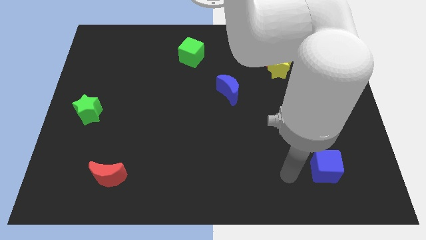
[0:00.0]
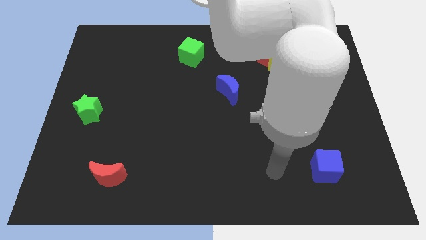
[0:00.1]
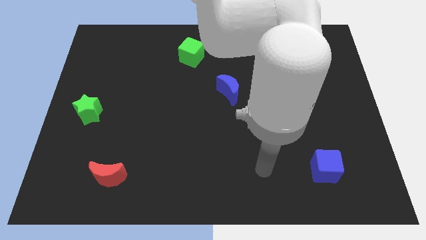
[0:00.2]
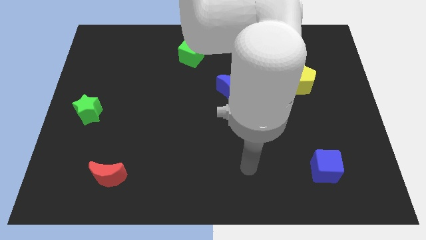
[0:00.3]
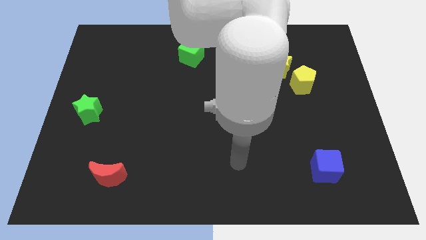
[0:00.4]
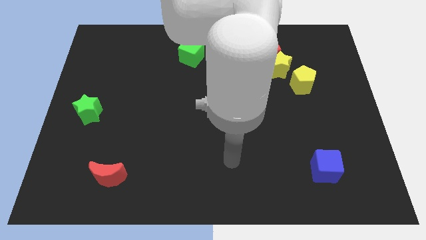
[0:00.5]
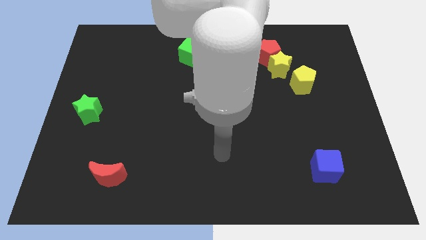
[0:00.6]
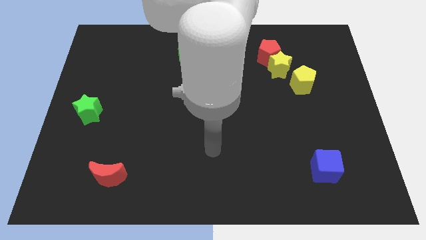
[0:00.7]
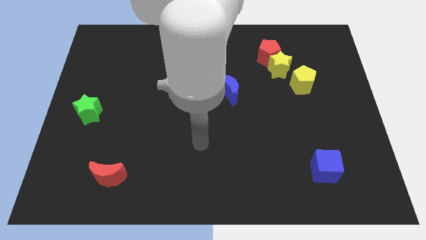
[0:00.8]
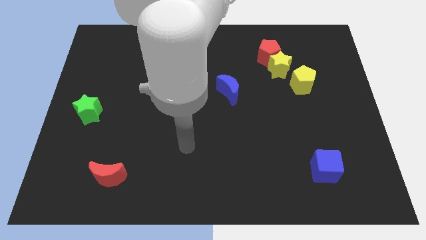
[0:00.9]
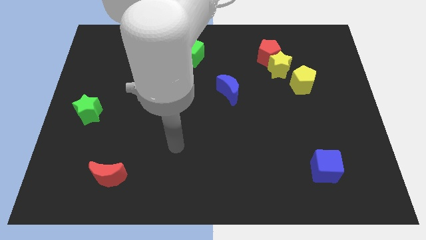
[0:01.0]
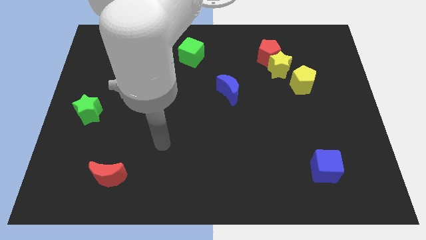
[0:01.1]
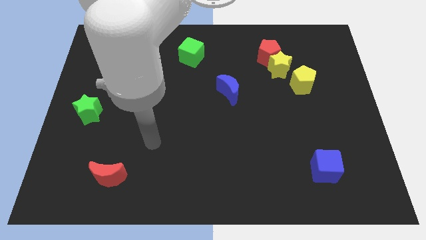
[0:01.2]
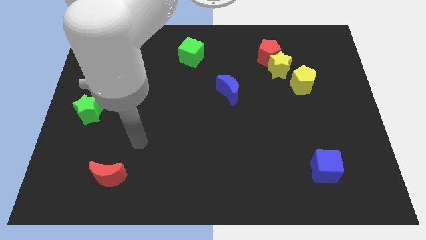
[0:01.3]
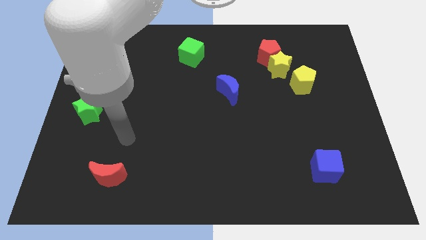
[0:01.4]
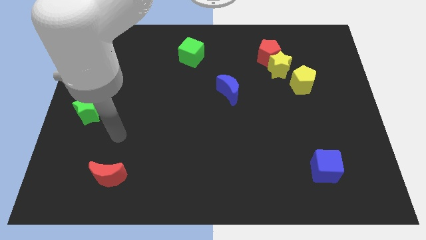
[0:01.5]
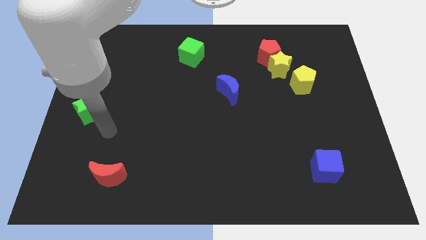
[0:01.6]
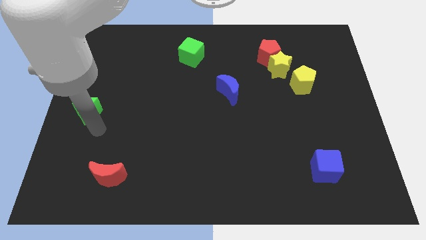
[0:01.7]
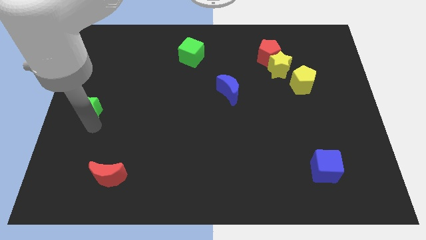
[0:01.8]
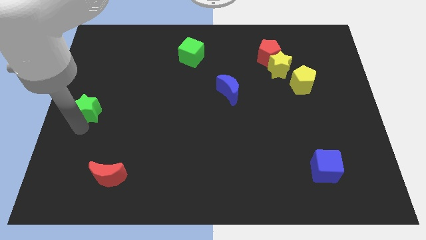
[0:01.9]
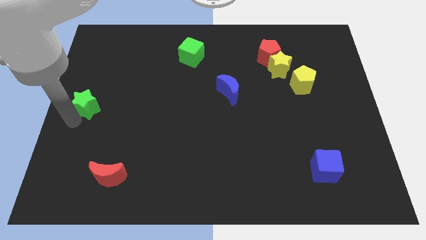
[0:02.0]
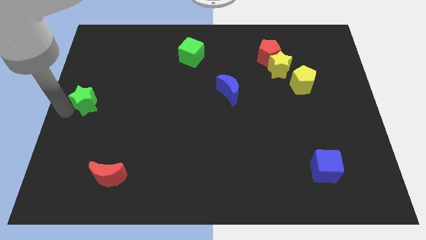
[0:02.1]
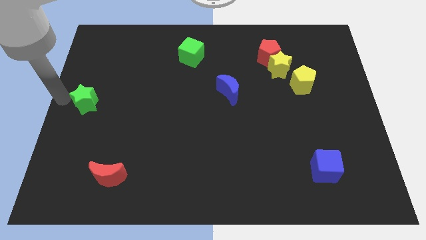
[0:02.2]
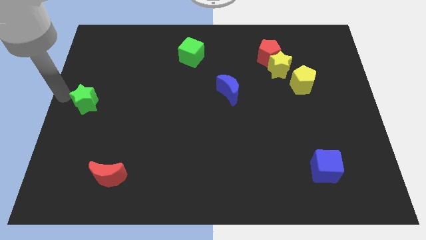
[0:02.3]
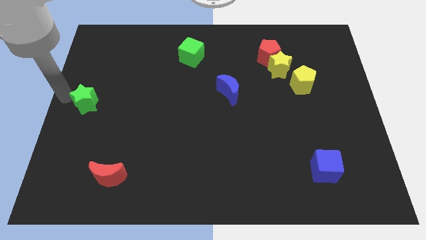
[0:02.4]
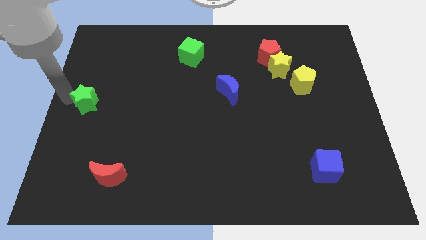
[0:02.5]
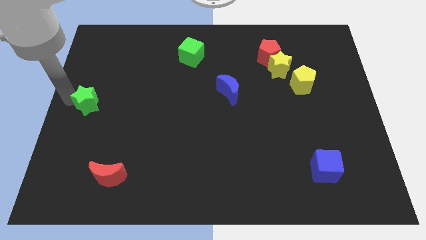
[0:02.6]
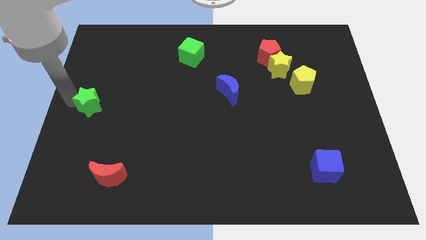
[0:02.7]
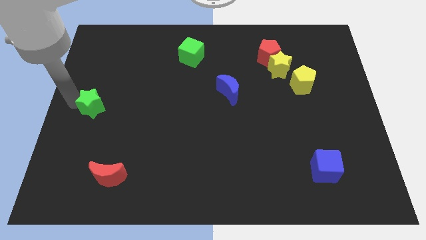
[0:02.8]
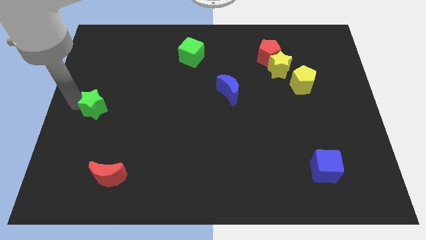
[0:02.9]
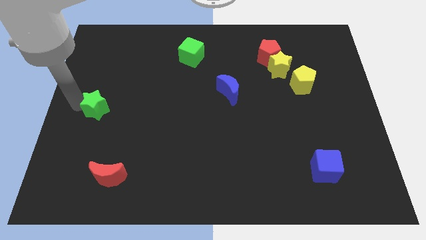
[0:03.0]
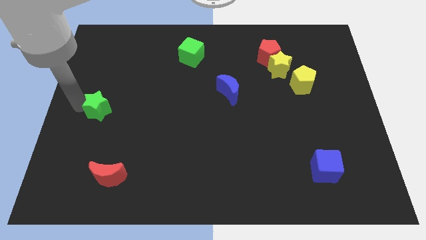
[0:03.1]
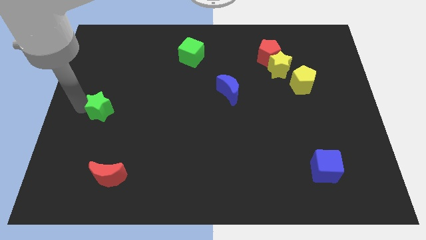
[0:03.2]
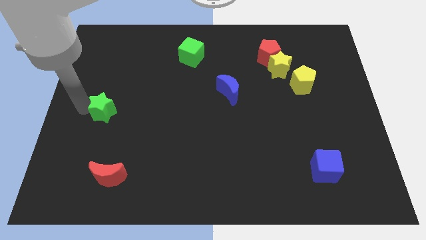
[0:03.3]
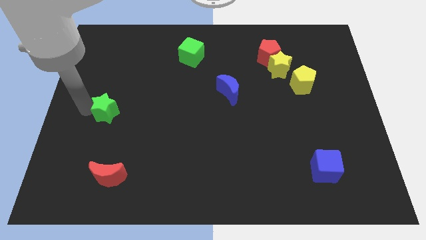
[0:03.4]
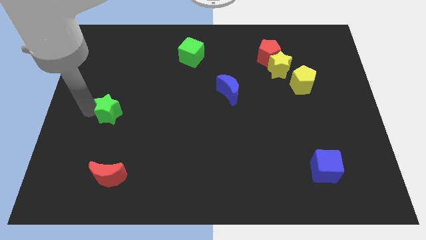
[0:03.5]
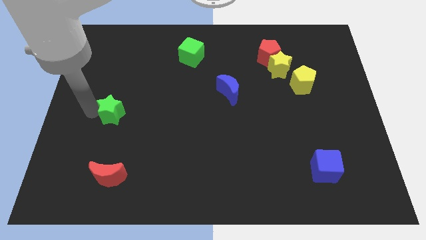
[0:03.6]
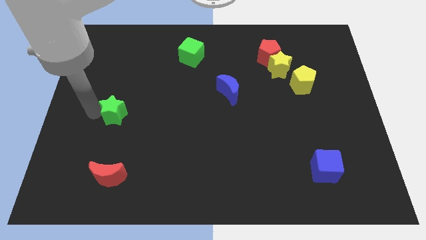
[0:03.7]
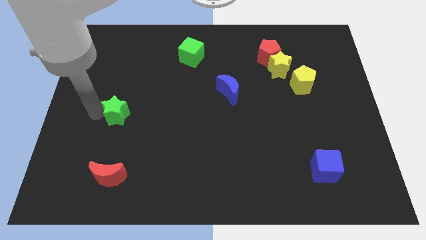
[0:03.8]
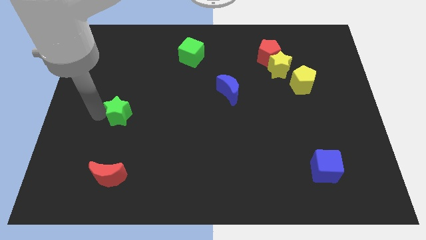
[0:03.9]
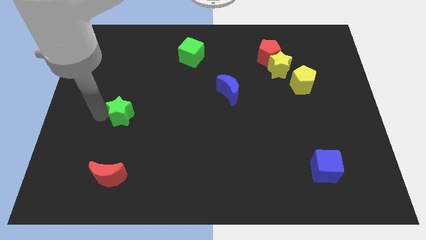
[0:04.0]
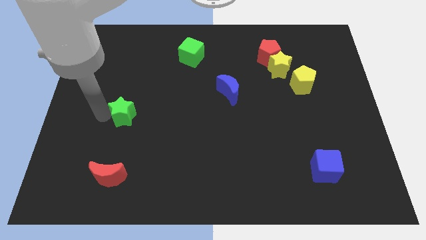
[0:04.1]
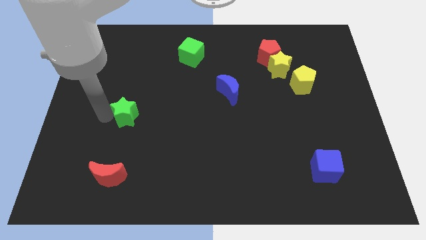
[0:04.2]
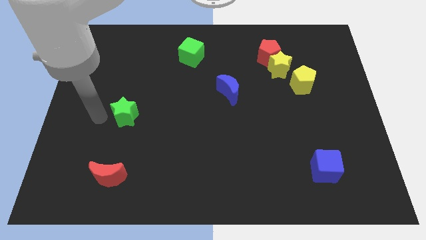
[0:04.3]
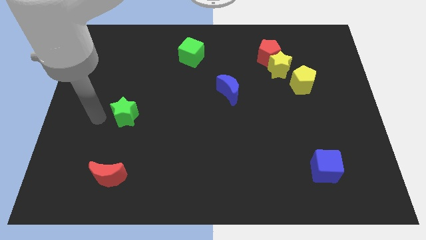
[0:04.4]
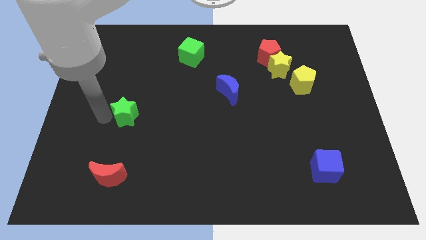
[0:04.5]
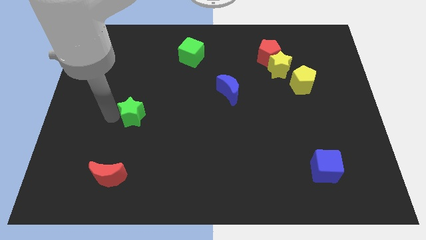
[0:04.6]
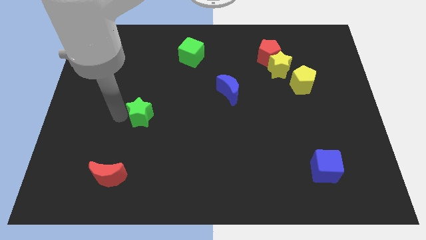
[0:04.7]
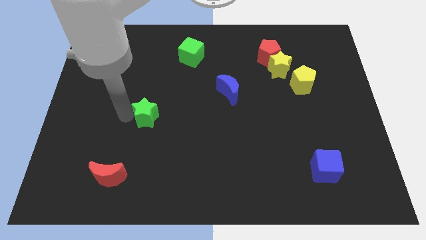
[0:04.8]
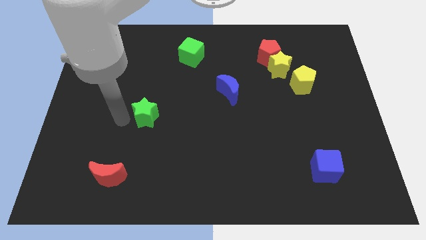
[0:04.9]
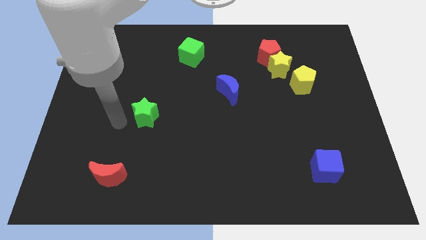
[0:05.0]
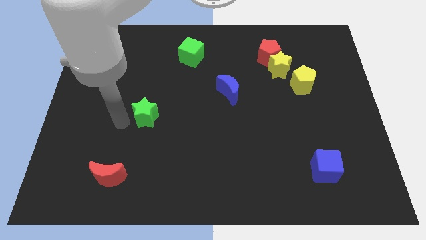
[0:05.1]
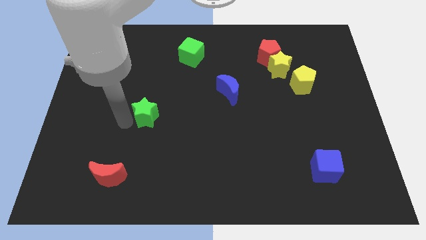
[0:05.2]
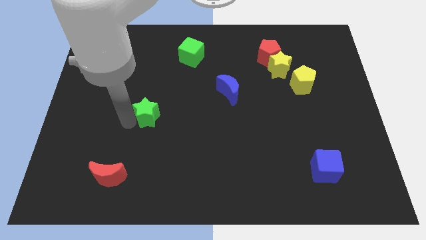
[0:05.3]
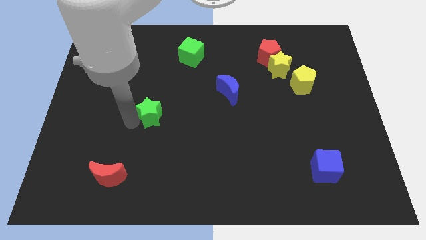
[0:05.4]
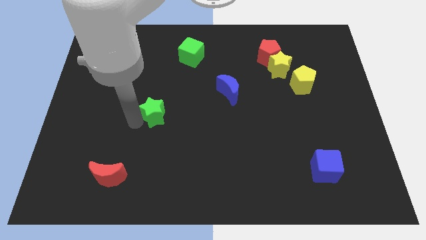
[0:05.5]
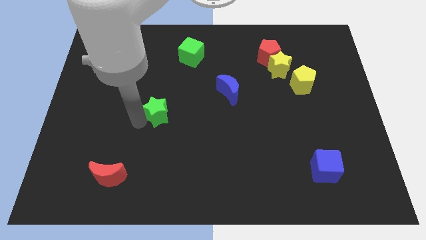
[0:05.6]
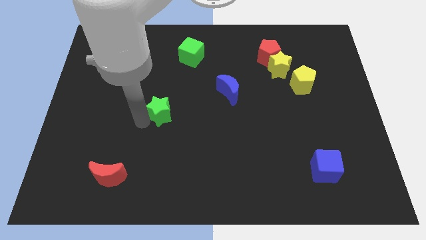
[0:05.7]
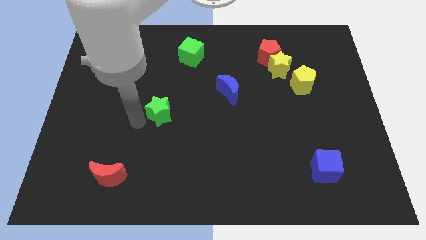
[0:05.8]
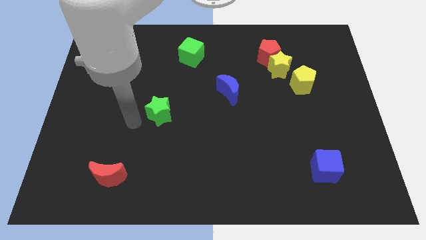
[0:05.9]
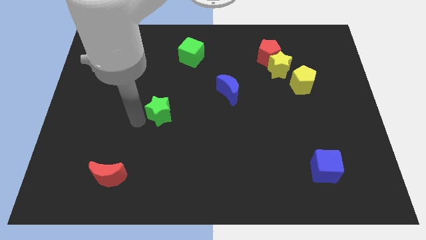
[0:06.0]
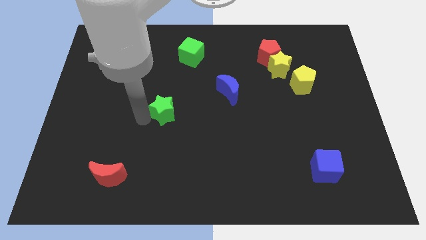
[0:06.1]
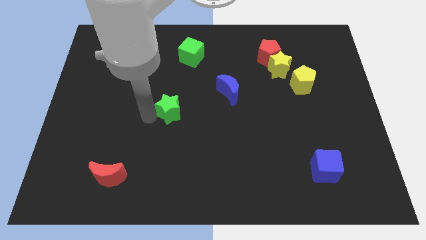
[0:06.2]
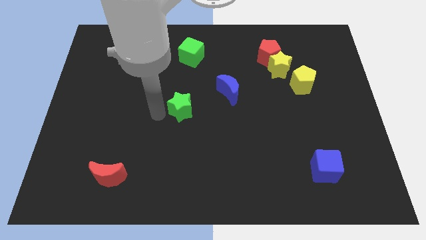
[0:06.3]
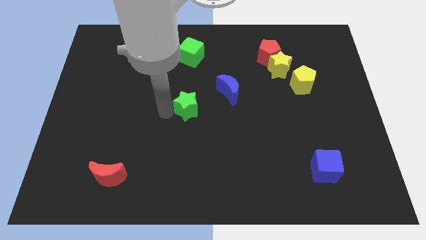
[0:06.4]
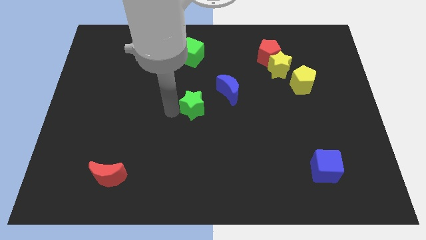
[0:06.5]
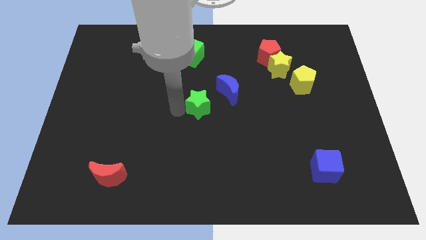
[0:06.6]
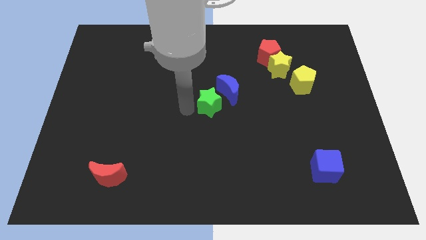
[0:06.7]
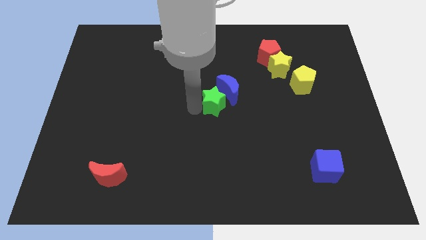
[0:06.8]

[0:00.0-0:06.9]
push the green star next to the blue moon

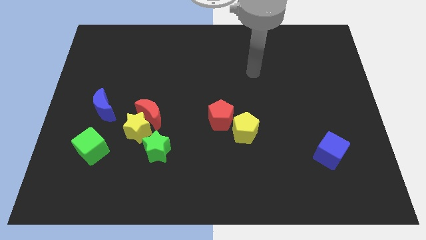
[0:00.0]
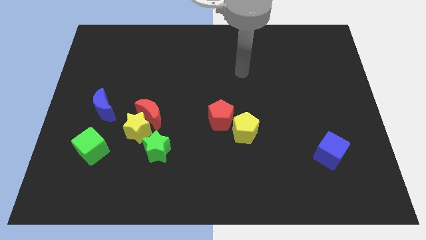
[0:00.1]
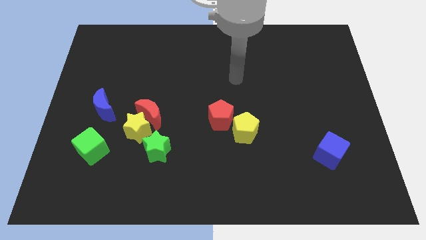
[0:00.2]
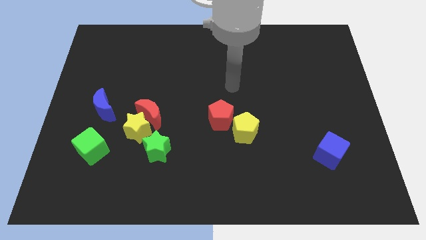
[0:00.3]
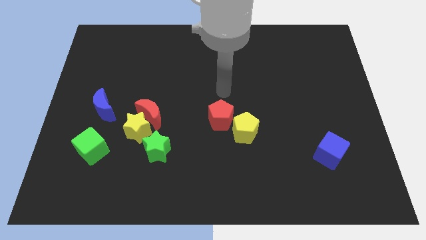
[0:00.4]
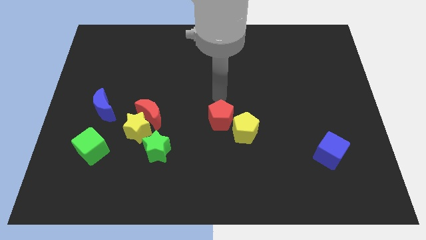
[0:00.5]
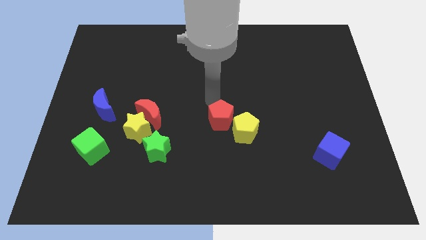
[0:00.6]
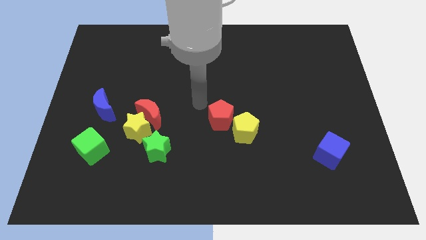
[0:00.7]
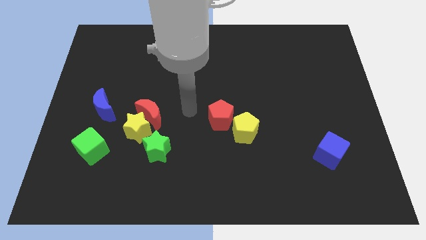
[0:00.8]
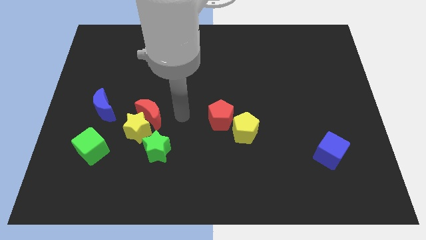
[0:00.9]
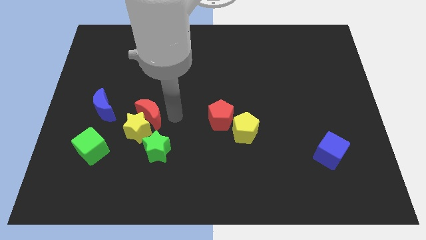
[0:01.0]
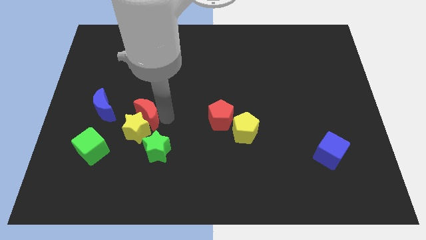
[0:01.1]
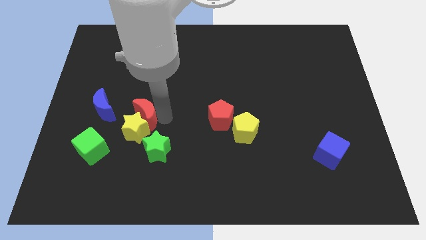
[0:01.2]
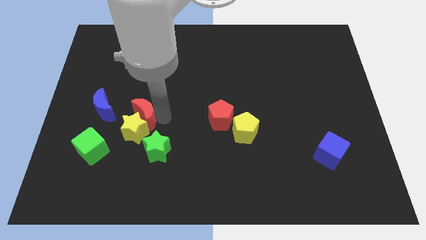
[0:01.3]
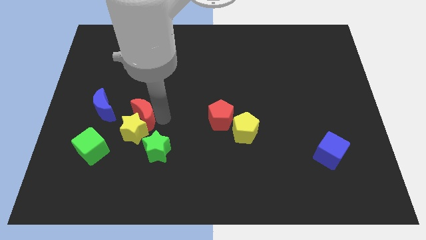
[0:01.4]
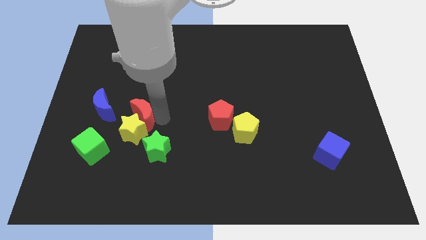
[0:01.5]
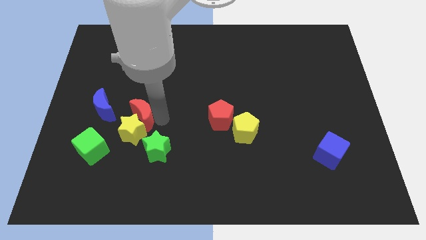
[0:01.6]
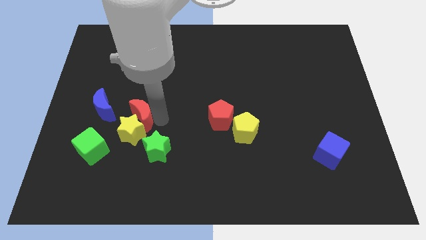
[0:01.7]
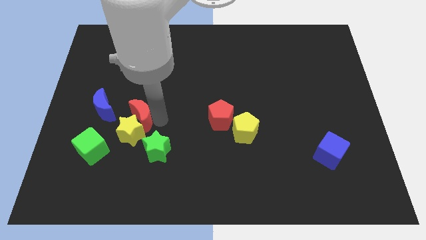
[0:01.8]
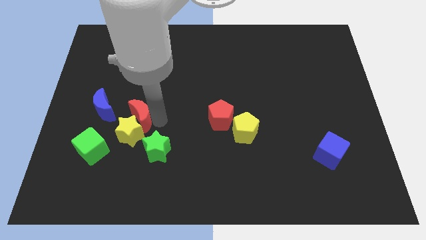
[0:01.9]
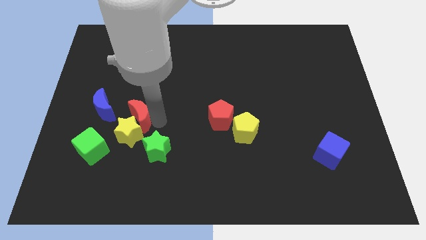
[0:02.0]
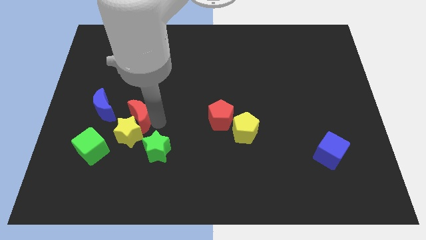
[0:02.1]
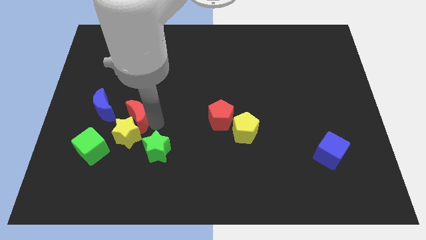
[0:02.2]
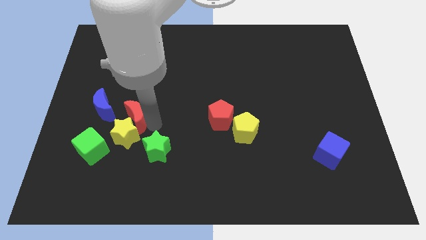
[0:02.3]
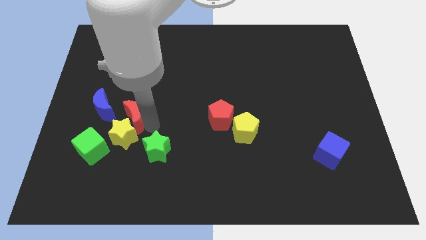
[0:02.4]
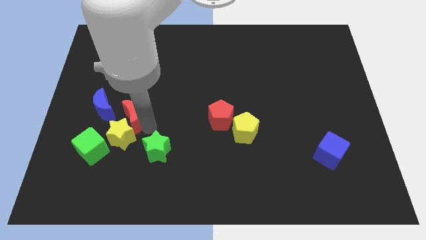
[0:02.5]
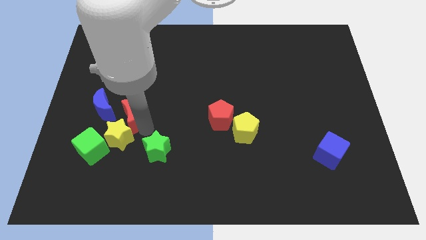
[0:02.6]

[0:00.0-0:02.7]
slide the yellow star next to the green cube
